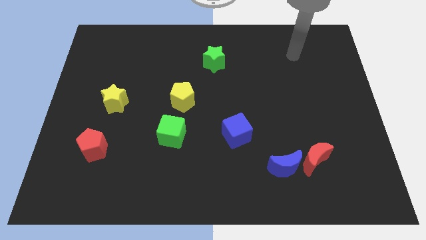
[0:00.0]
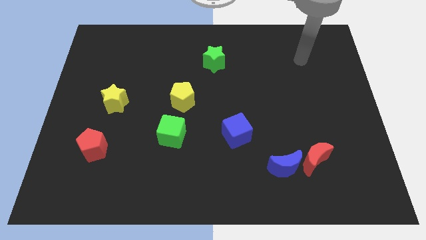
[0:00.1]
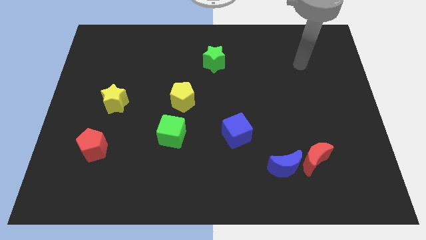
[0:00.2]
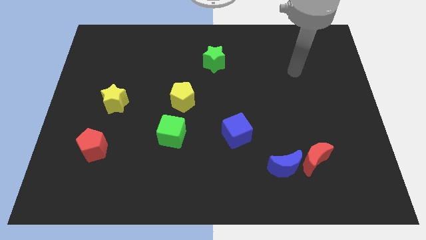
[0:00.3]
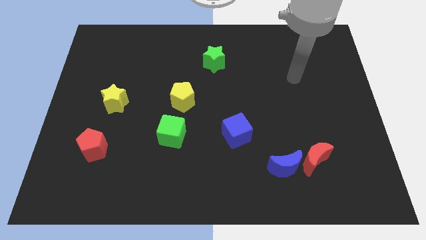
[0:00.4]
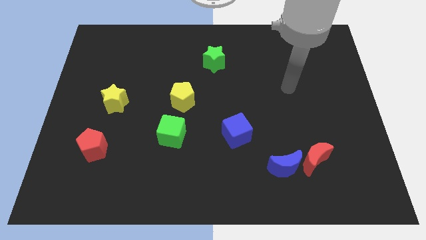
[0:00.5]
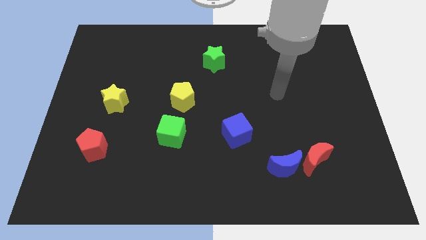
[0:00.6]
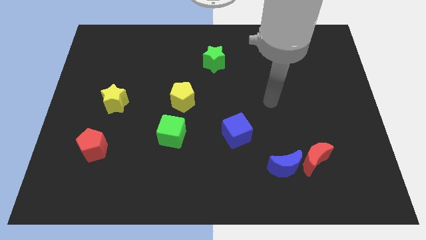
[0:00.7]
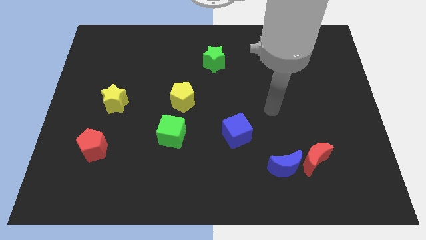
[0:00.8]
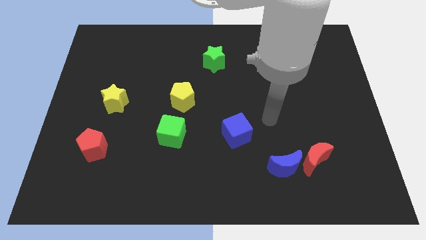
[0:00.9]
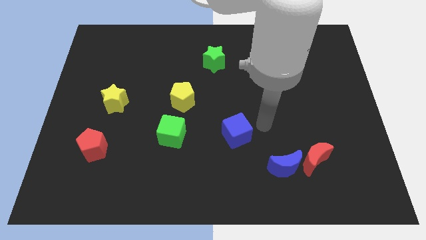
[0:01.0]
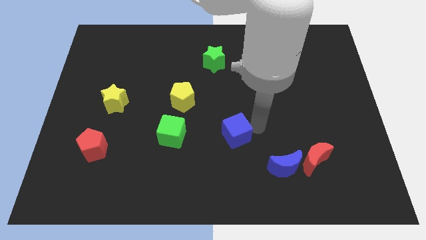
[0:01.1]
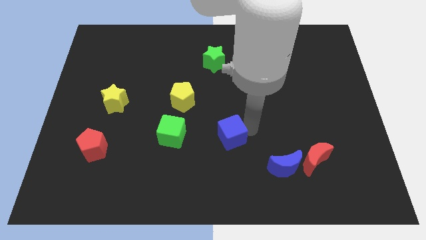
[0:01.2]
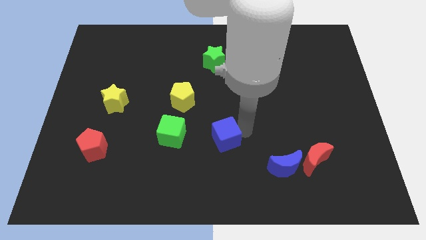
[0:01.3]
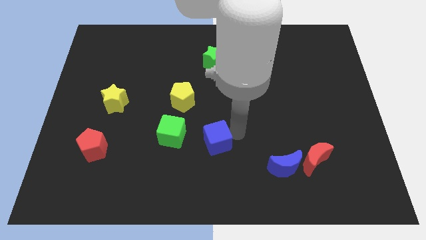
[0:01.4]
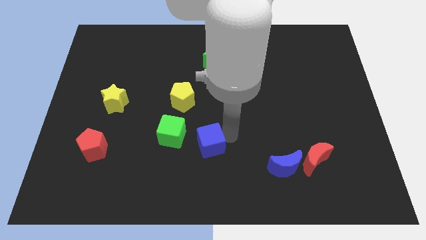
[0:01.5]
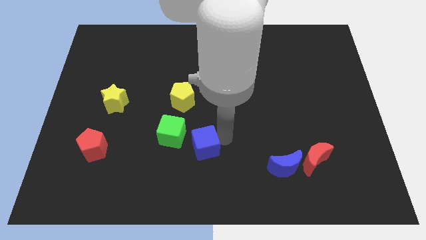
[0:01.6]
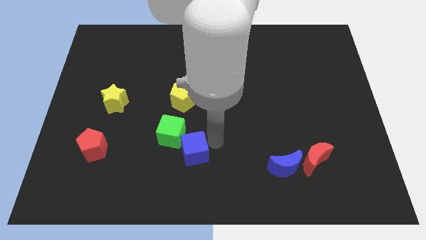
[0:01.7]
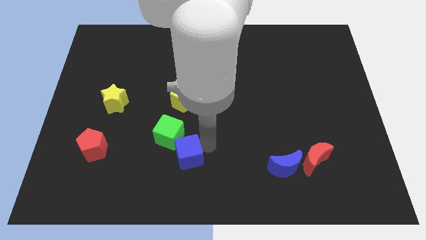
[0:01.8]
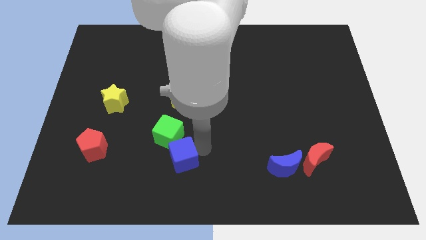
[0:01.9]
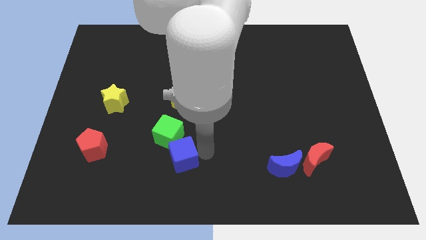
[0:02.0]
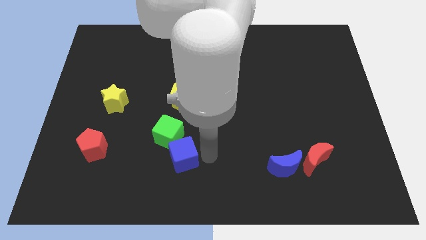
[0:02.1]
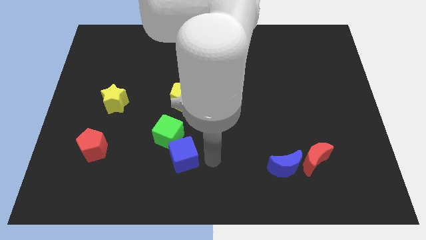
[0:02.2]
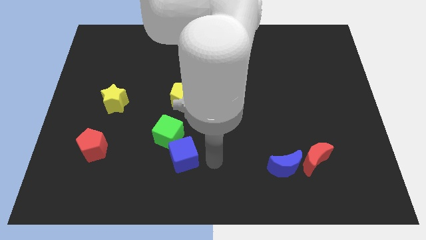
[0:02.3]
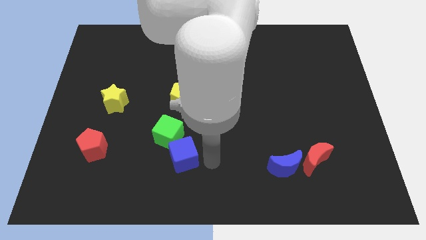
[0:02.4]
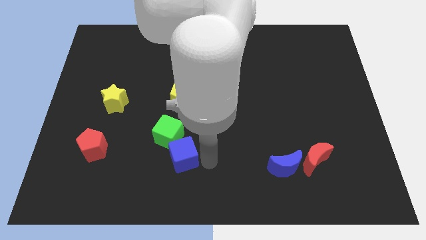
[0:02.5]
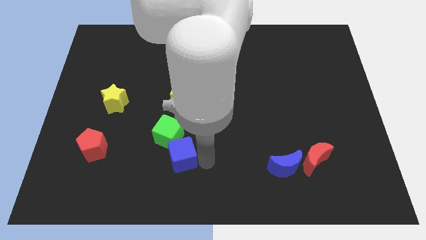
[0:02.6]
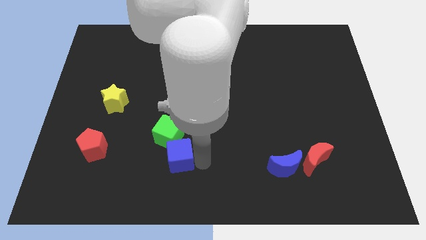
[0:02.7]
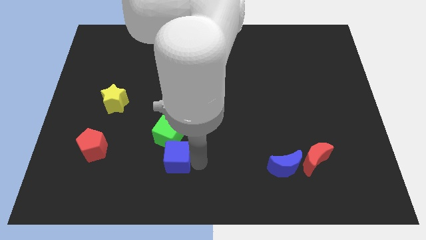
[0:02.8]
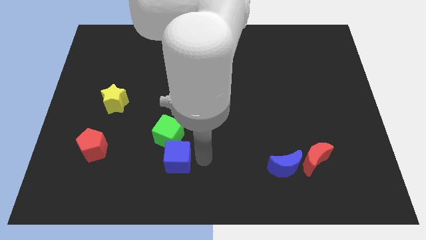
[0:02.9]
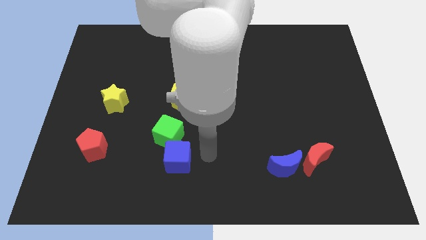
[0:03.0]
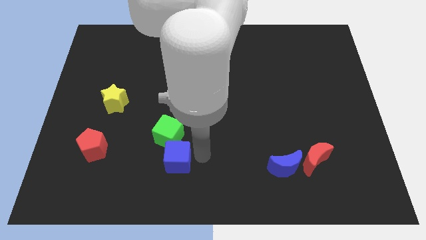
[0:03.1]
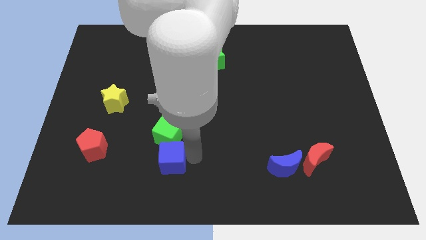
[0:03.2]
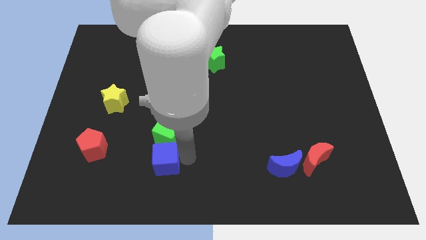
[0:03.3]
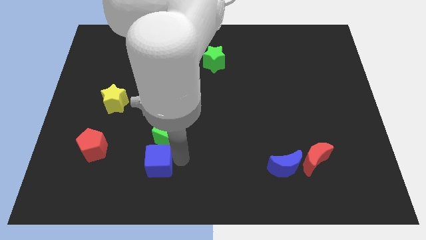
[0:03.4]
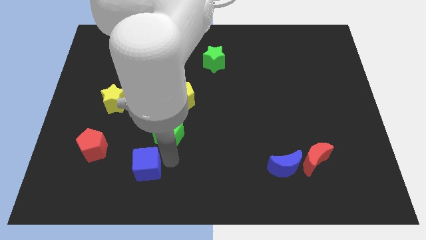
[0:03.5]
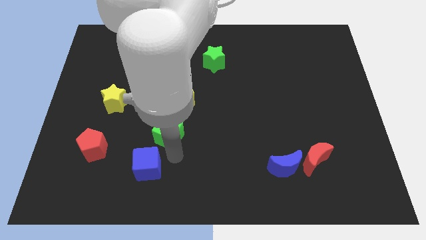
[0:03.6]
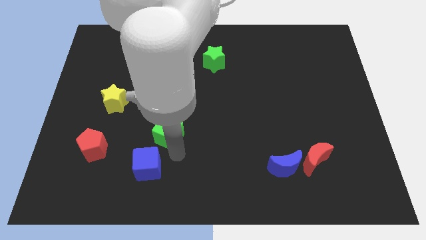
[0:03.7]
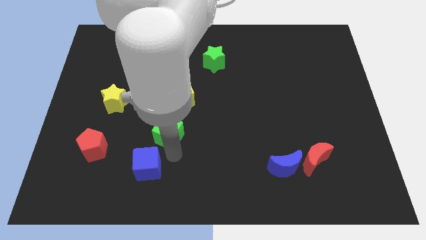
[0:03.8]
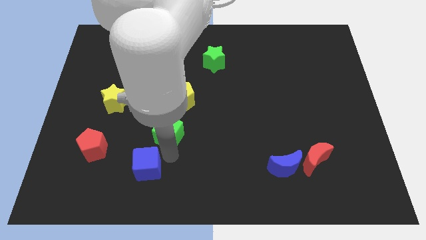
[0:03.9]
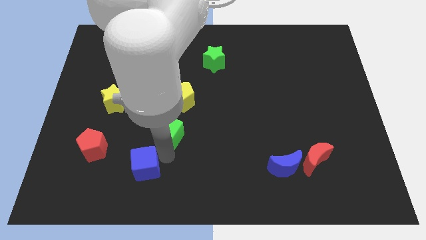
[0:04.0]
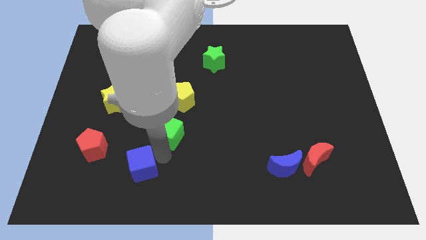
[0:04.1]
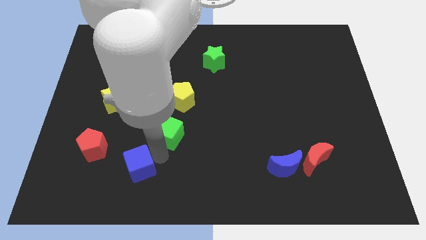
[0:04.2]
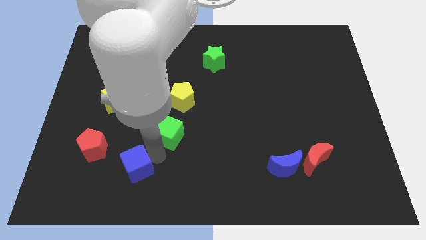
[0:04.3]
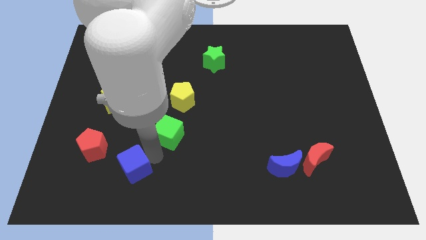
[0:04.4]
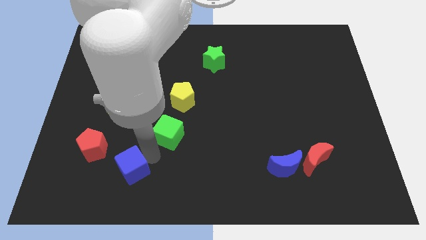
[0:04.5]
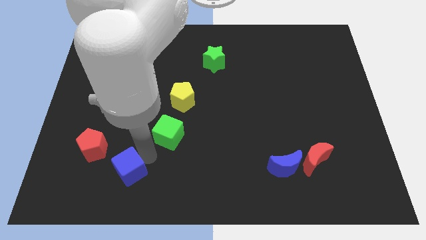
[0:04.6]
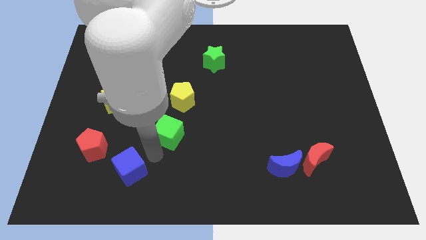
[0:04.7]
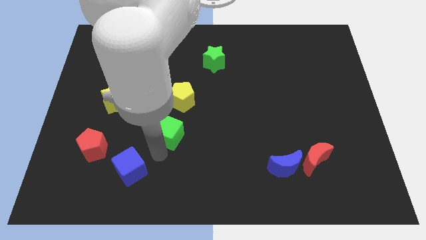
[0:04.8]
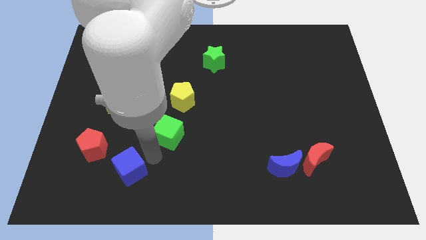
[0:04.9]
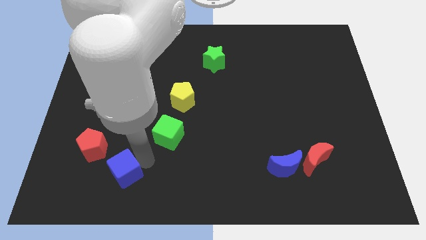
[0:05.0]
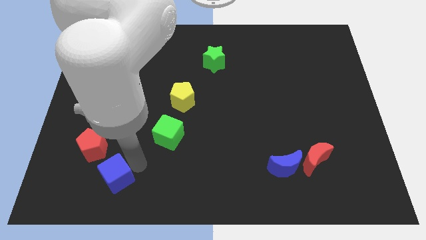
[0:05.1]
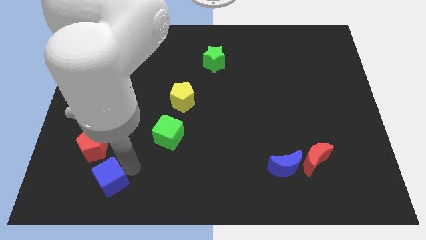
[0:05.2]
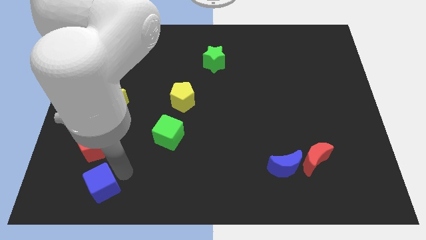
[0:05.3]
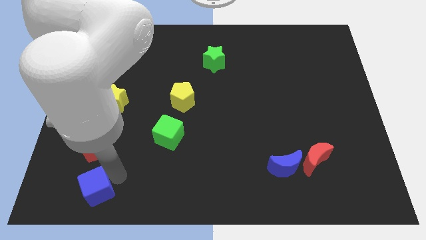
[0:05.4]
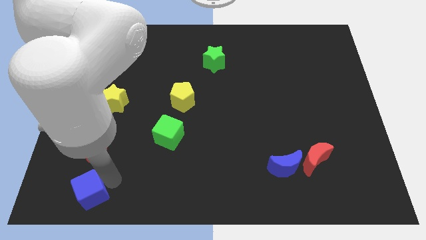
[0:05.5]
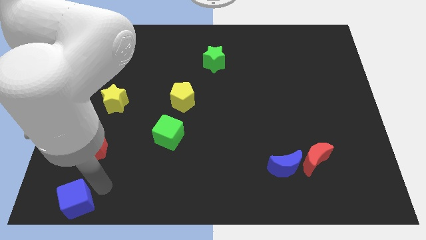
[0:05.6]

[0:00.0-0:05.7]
push the blue cube to the bottom left corner

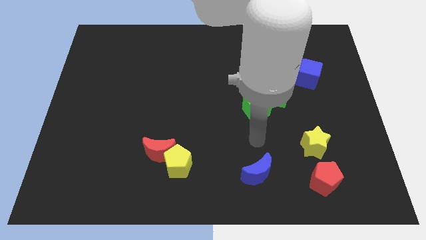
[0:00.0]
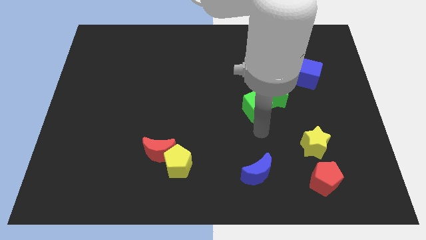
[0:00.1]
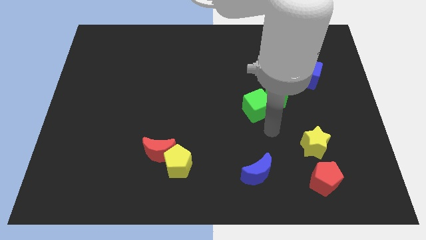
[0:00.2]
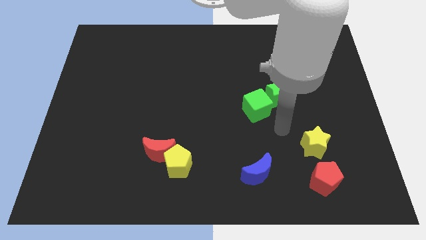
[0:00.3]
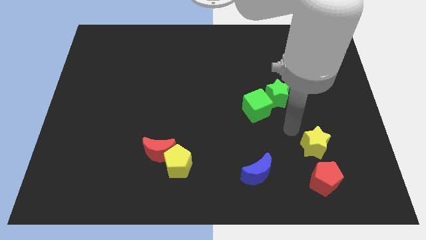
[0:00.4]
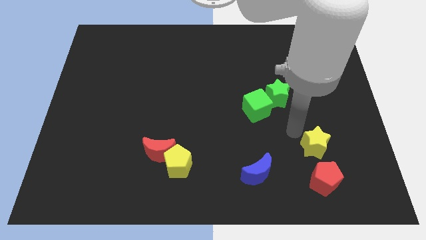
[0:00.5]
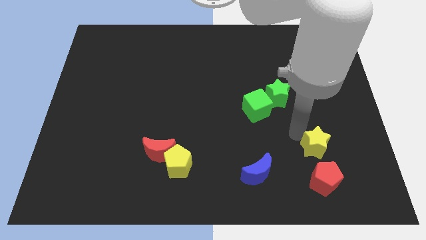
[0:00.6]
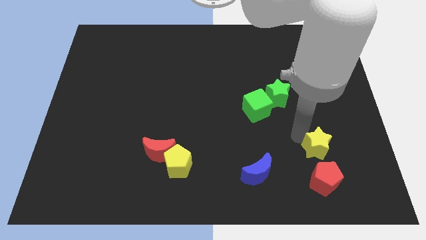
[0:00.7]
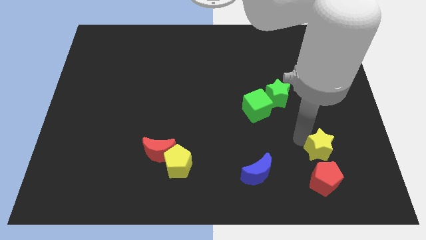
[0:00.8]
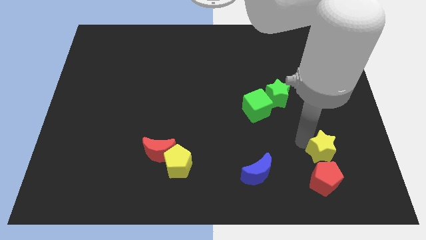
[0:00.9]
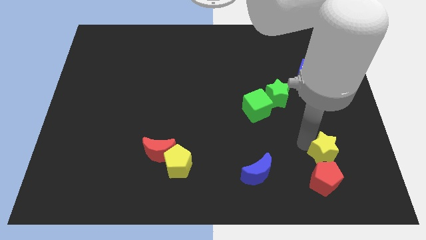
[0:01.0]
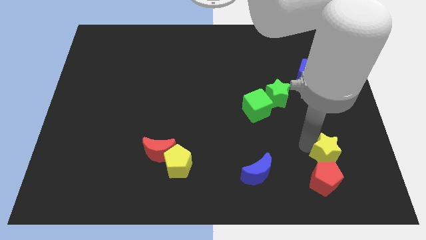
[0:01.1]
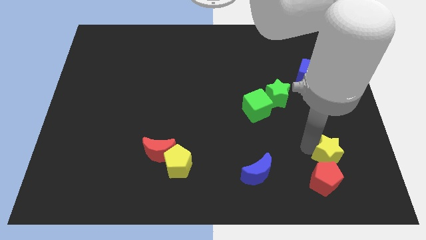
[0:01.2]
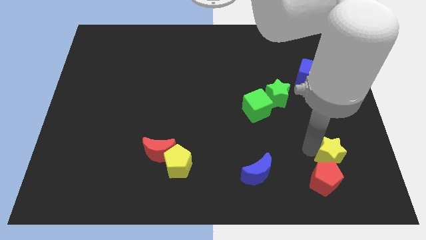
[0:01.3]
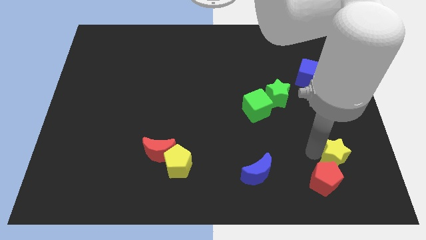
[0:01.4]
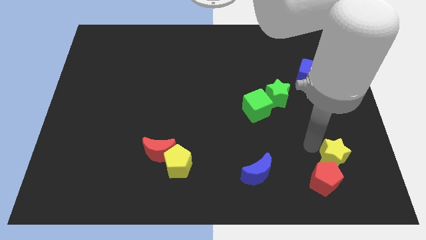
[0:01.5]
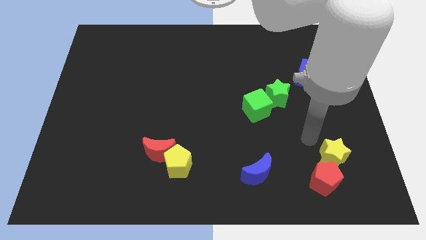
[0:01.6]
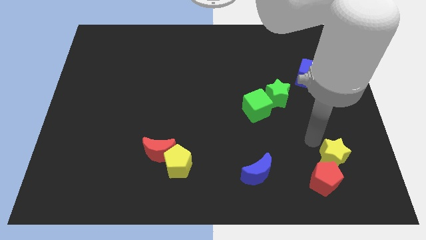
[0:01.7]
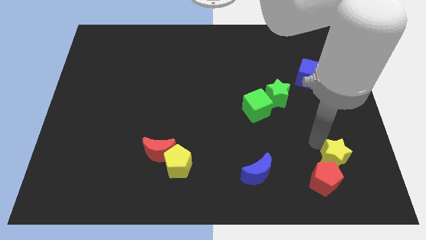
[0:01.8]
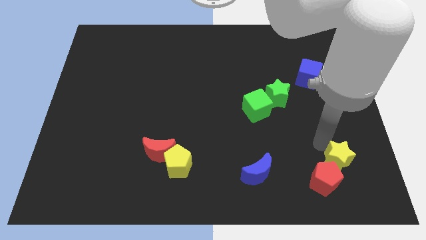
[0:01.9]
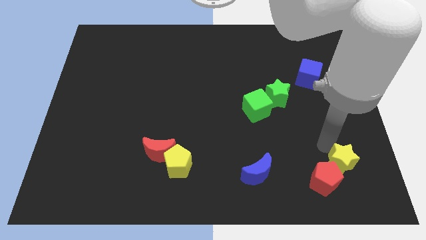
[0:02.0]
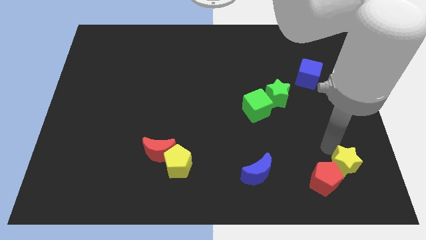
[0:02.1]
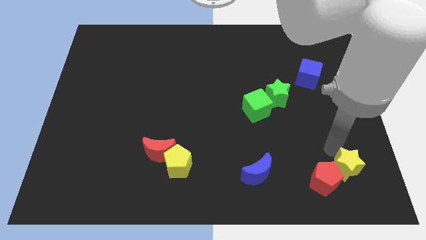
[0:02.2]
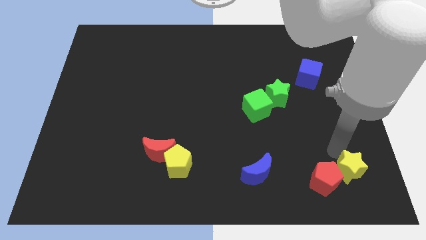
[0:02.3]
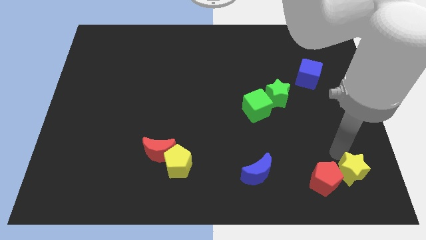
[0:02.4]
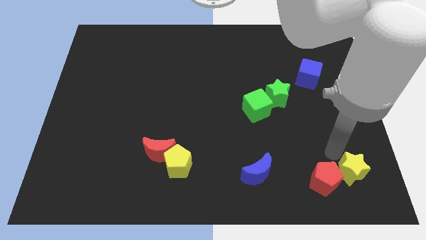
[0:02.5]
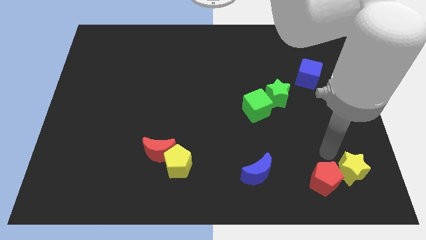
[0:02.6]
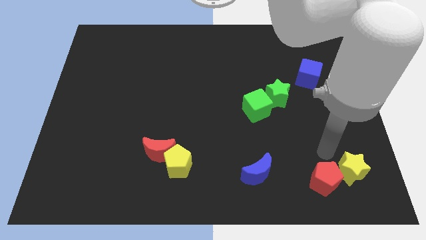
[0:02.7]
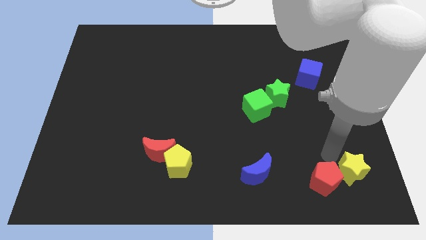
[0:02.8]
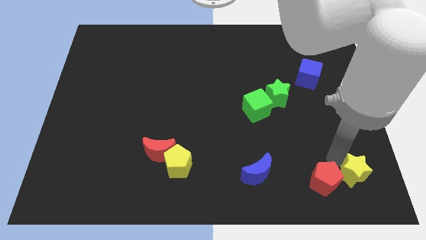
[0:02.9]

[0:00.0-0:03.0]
move the yellow star to the bottom right
